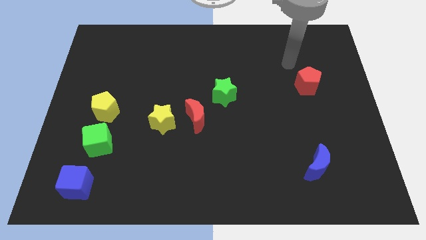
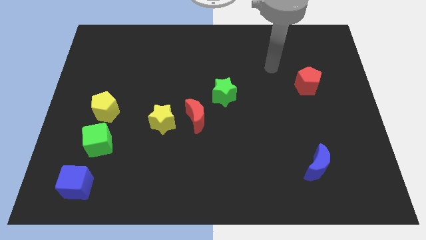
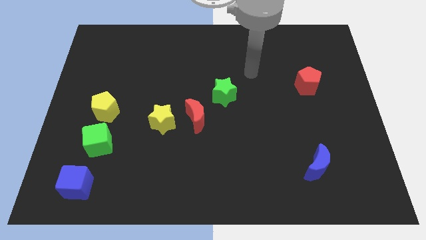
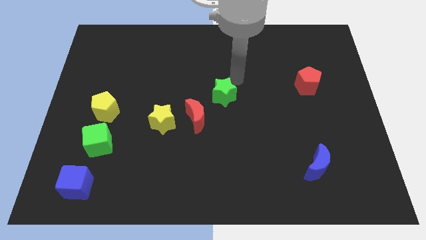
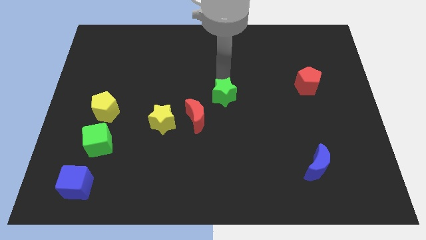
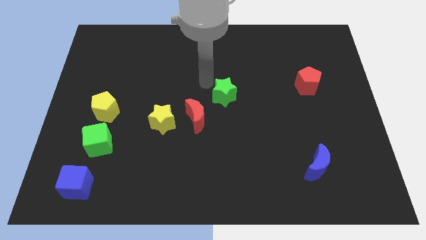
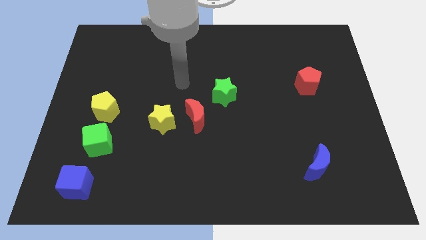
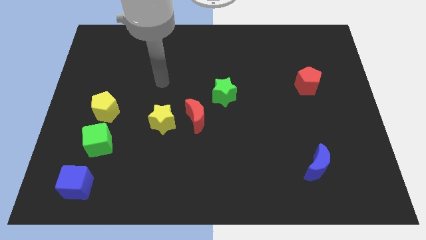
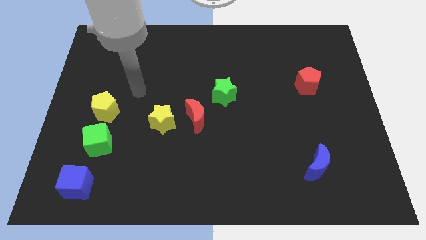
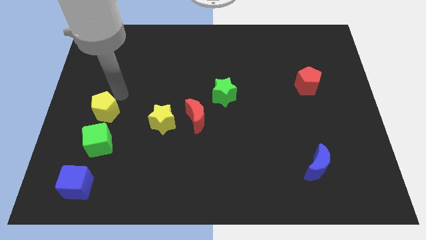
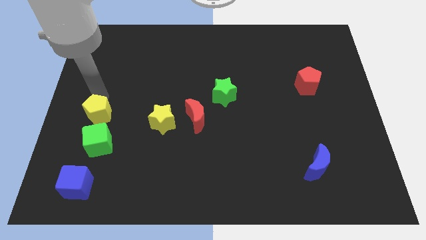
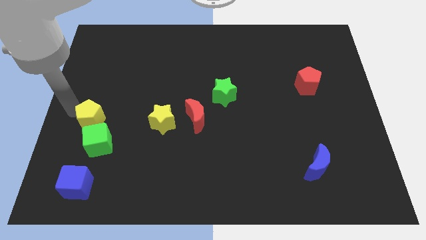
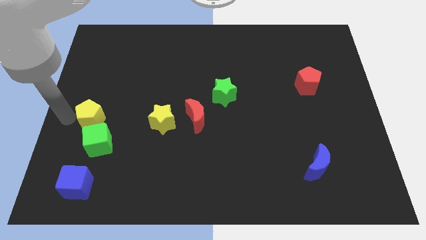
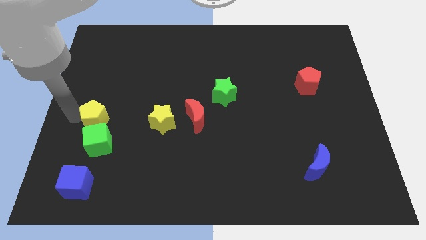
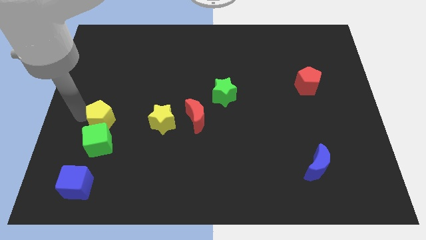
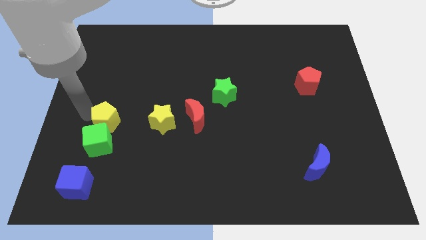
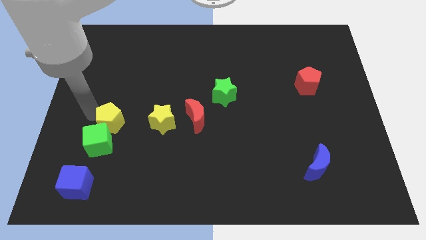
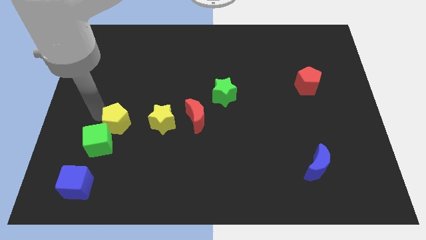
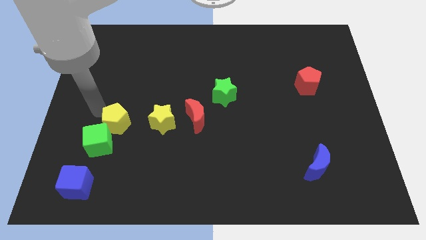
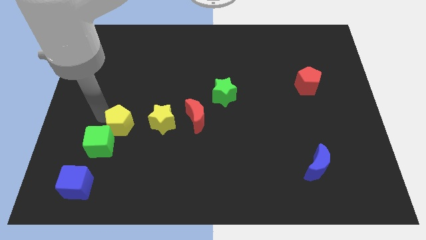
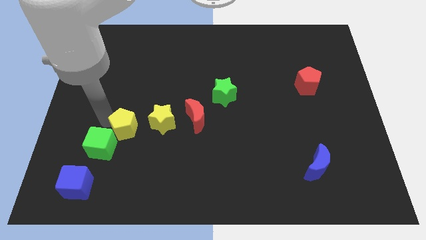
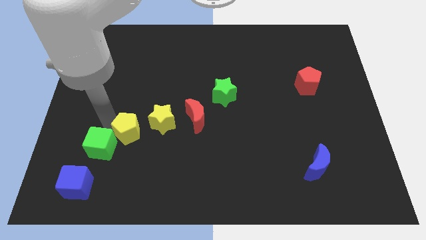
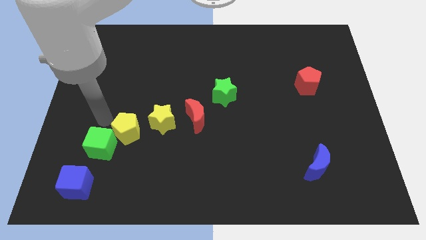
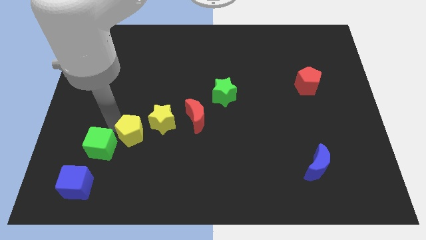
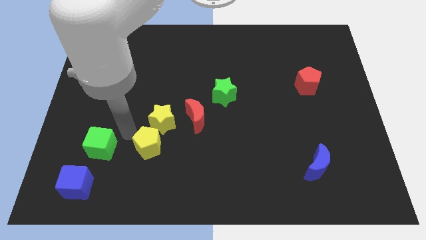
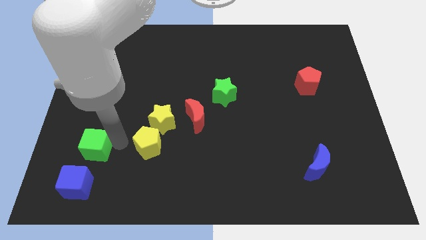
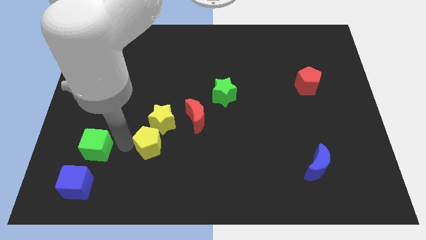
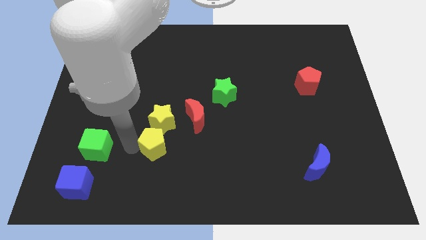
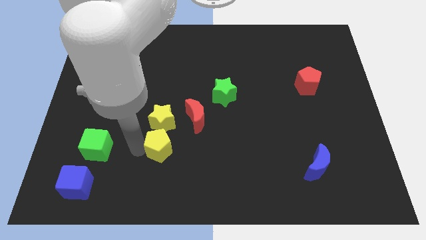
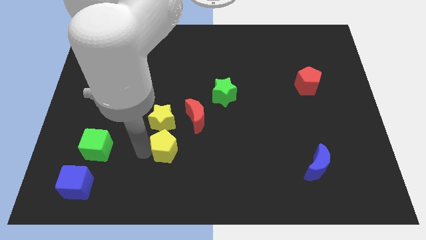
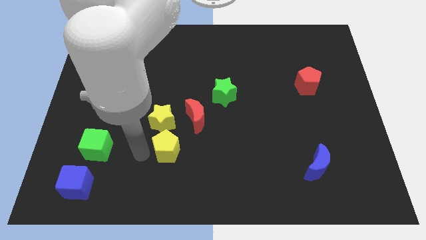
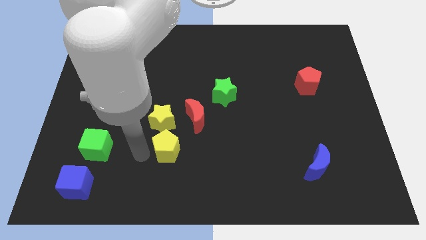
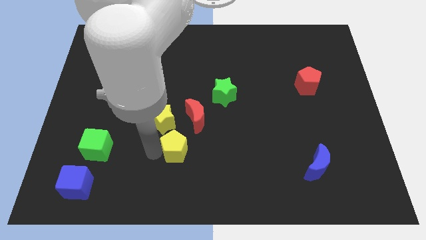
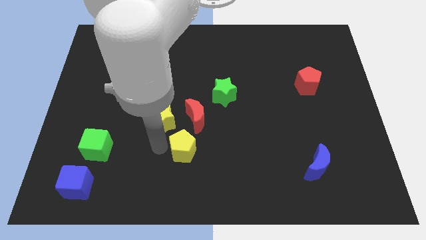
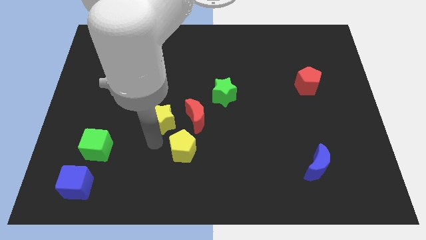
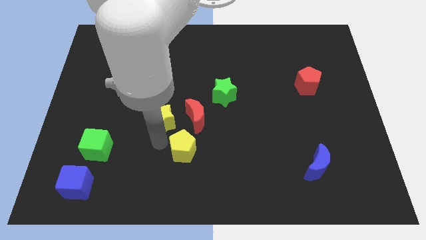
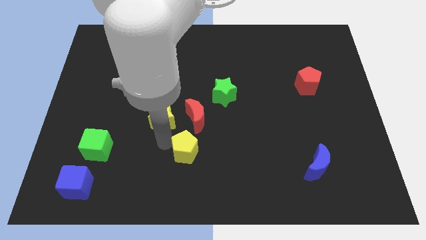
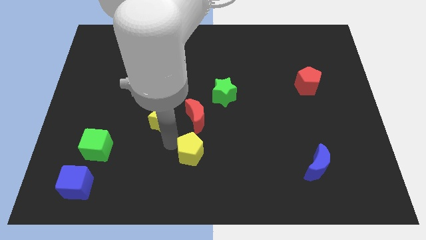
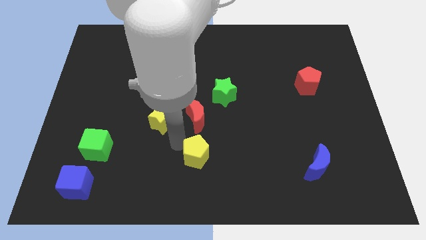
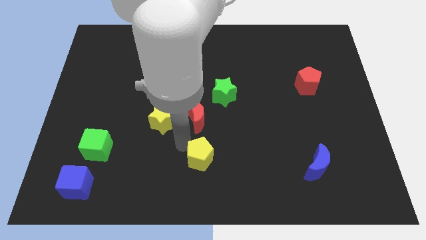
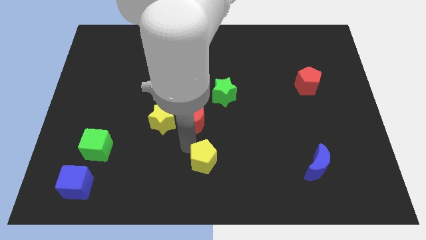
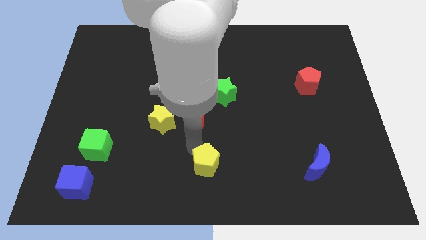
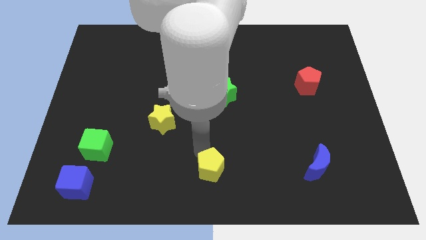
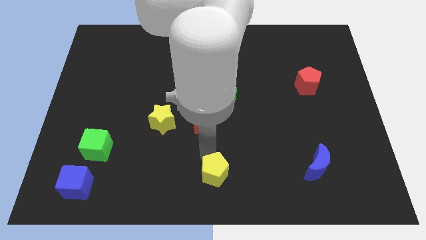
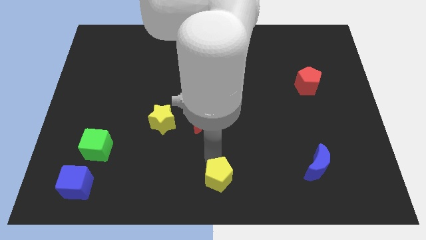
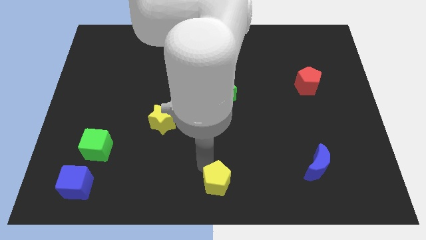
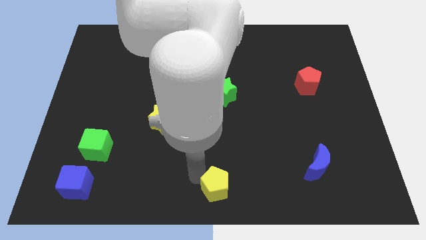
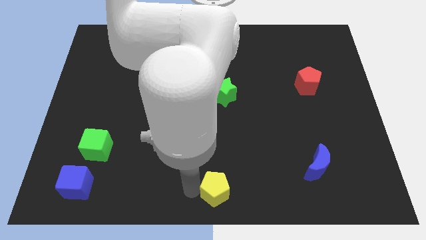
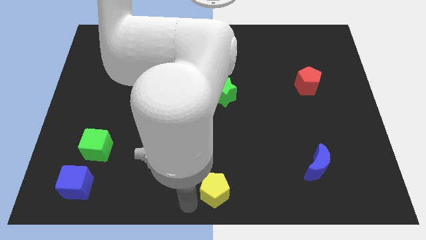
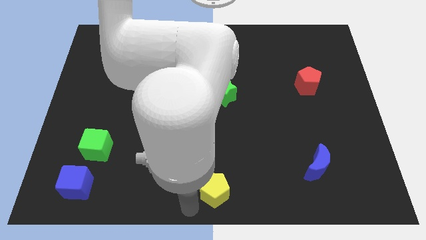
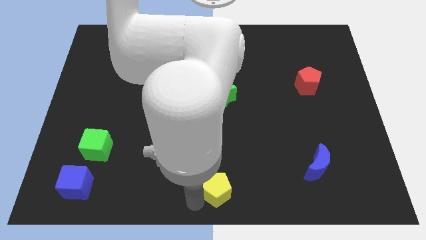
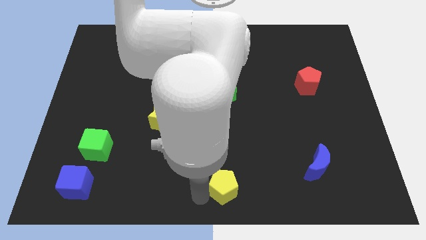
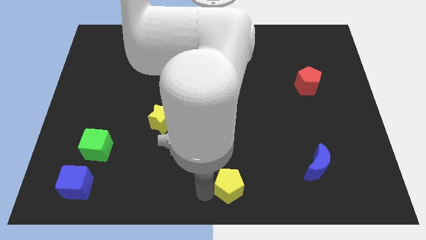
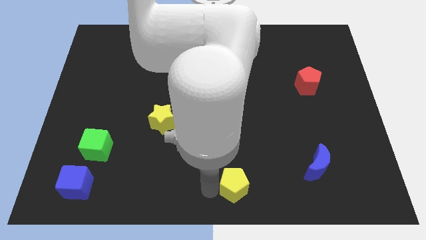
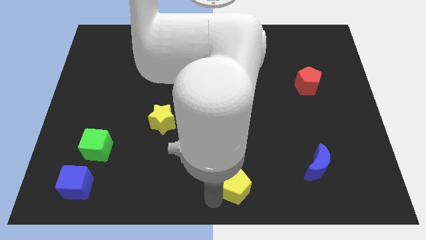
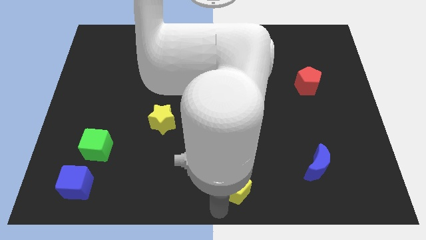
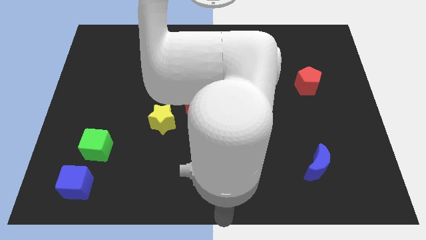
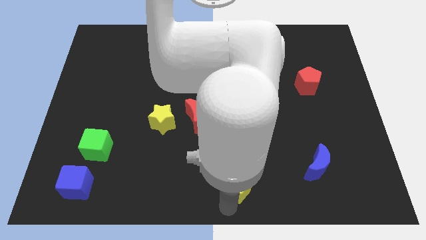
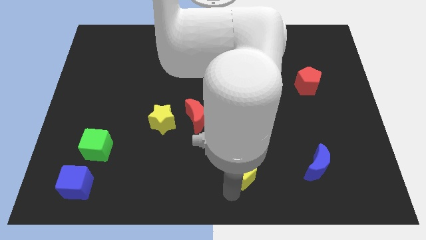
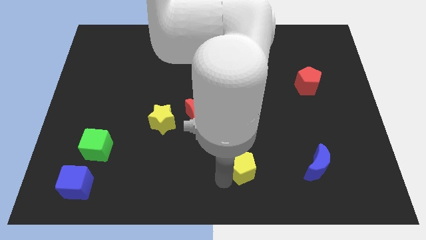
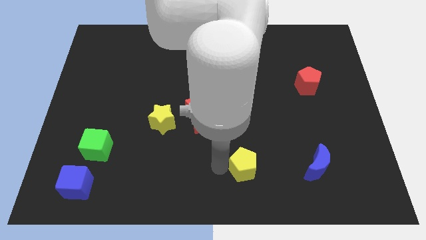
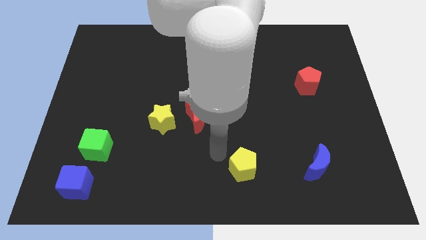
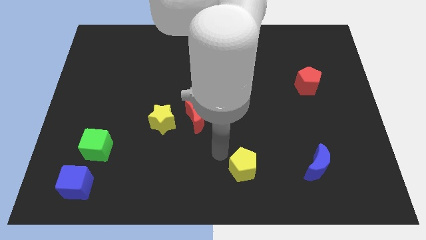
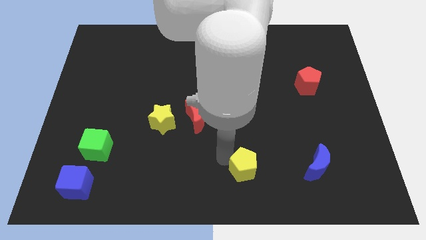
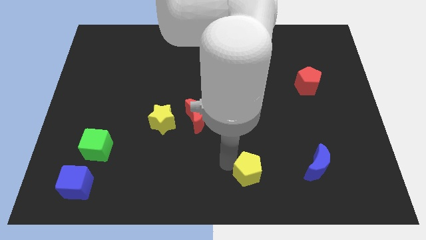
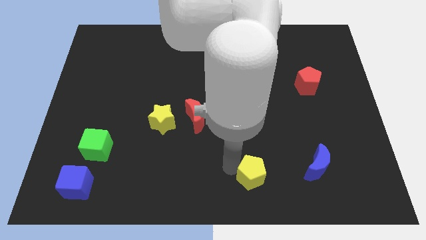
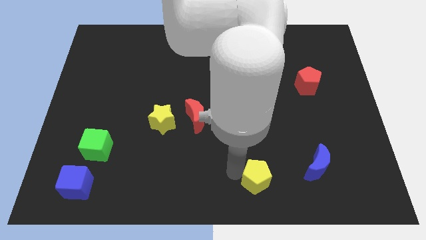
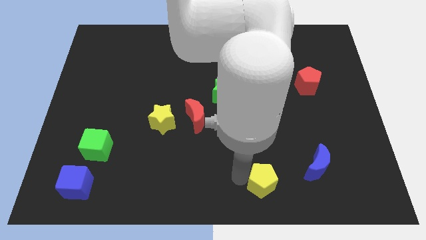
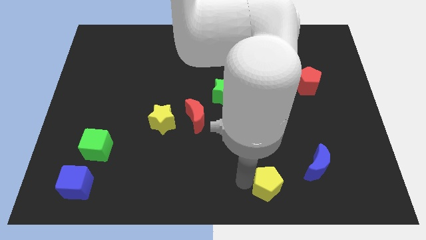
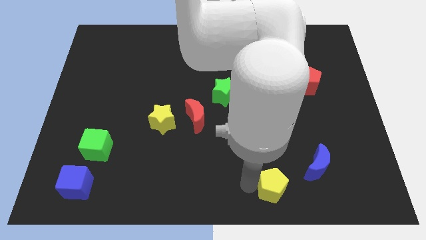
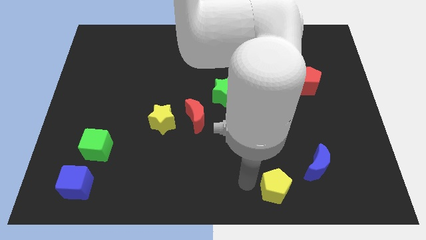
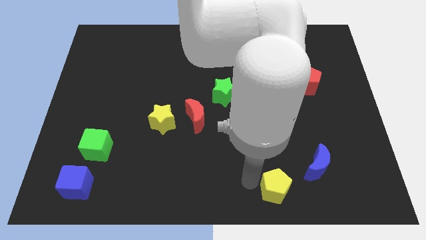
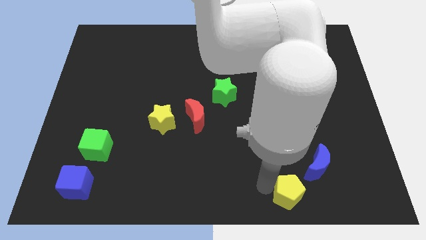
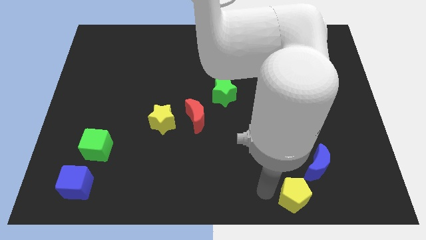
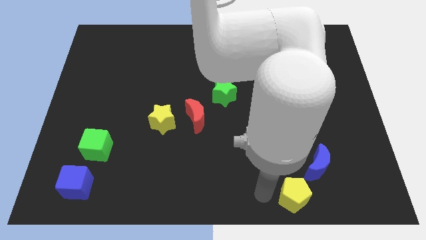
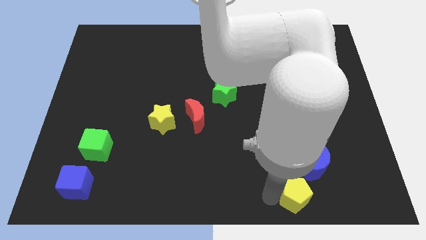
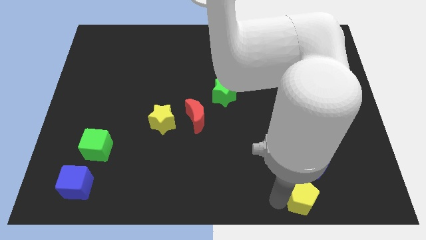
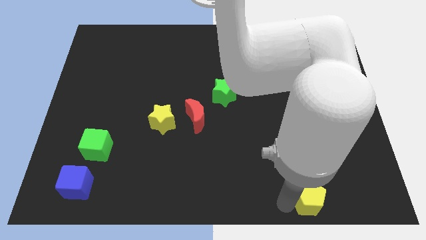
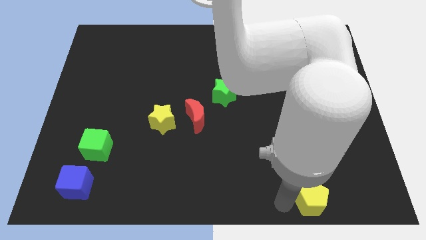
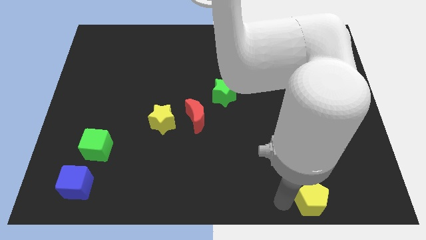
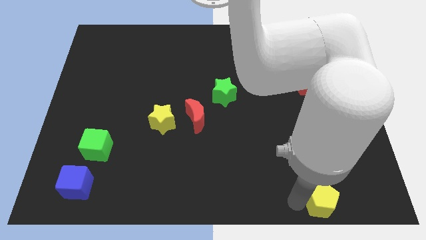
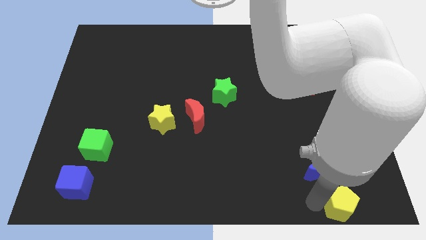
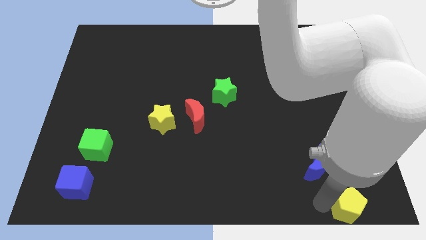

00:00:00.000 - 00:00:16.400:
put the yellow pentagon to the bottom right
